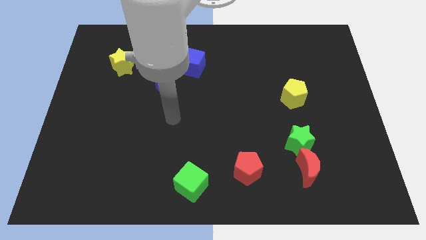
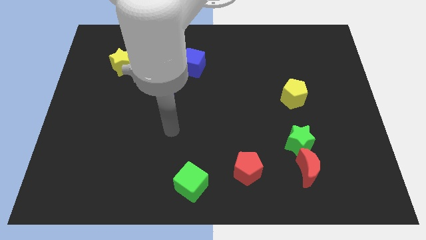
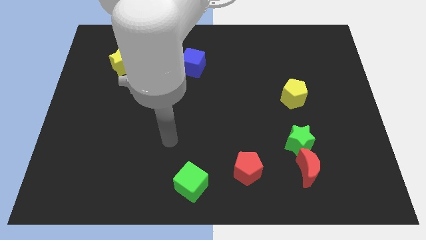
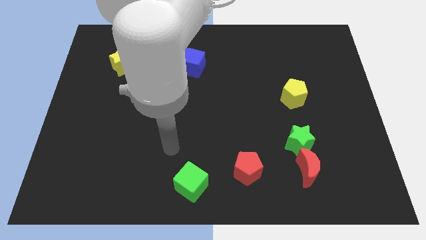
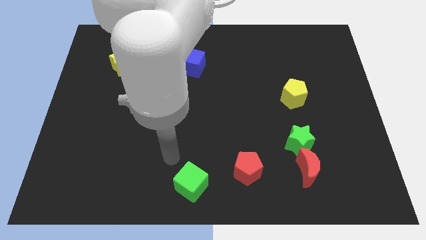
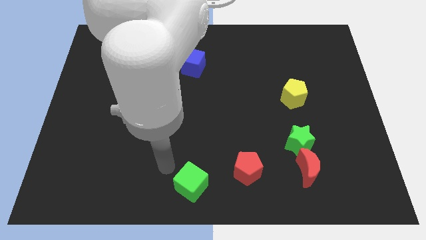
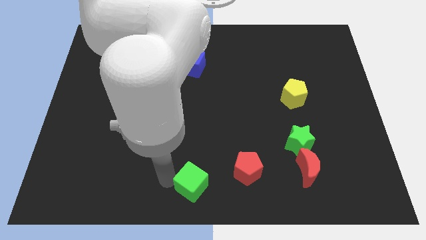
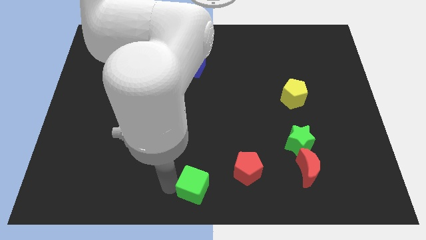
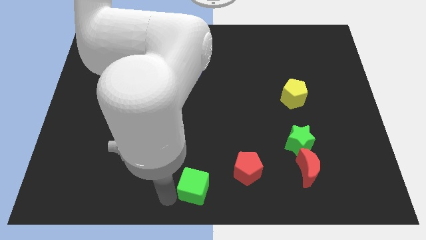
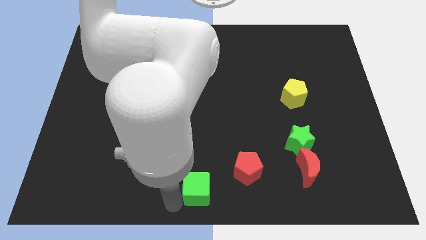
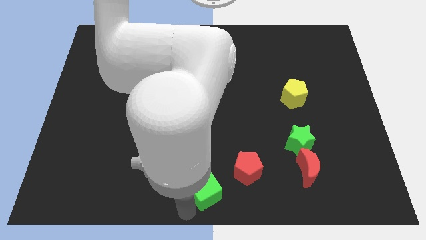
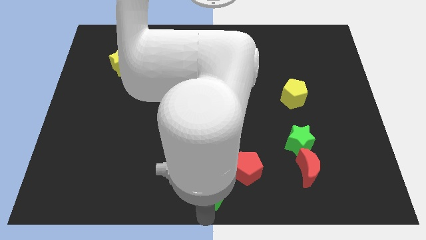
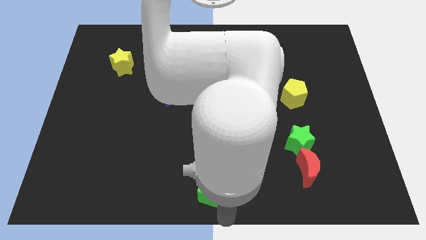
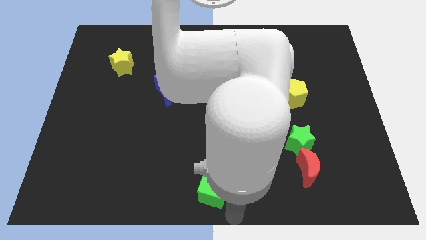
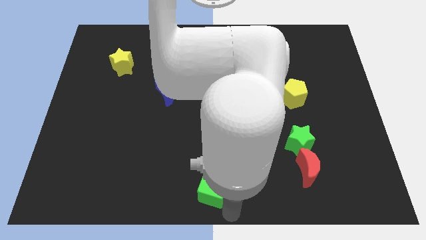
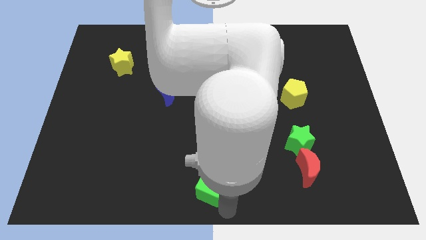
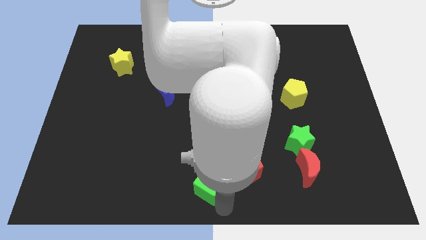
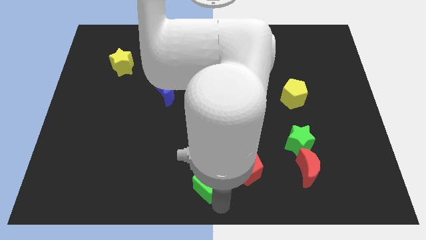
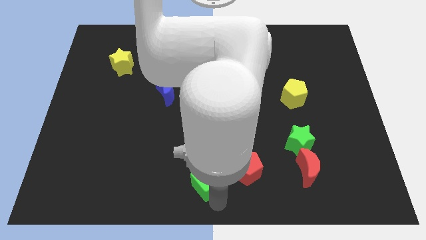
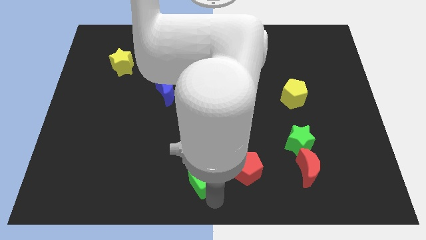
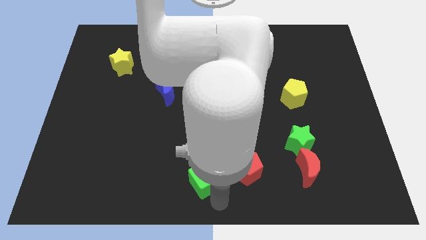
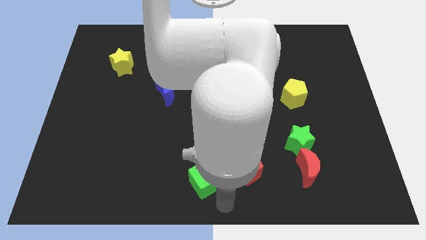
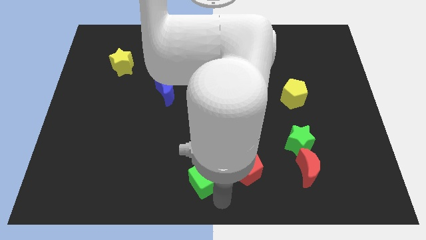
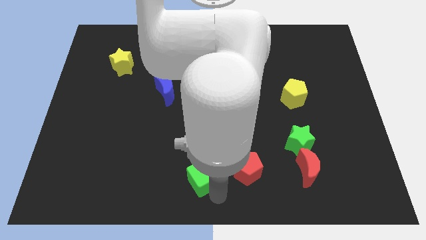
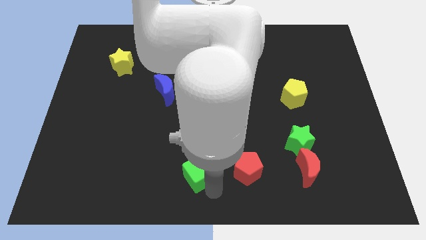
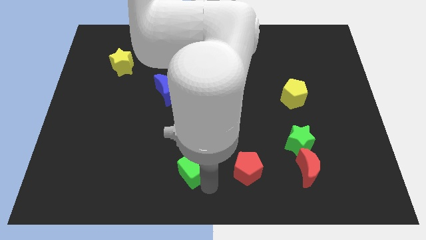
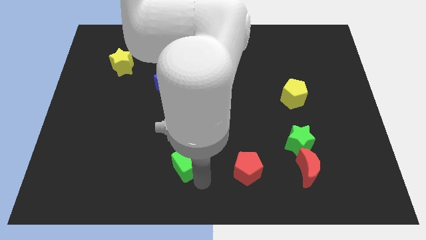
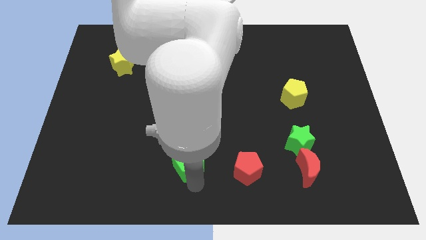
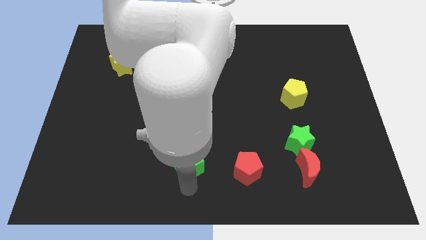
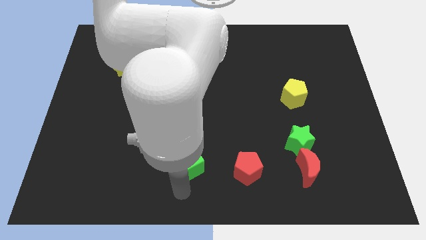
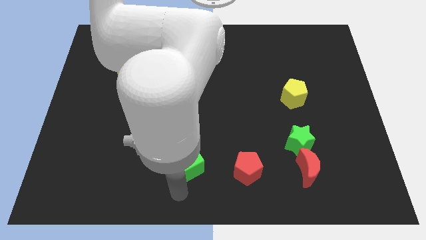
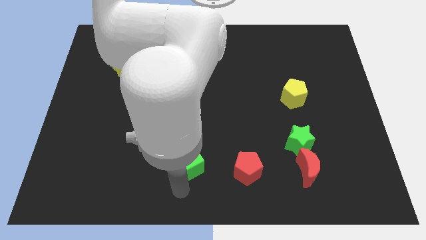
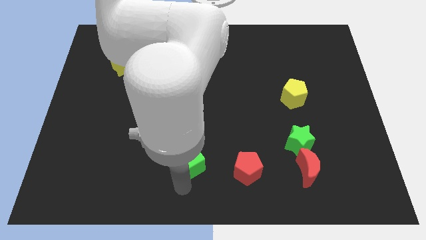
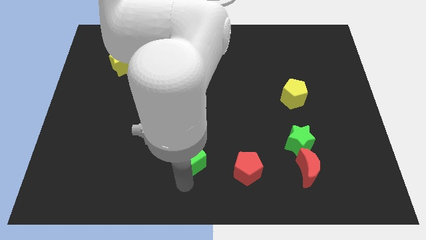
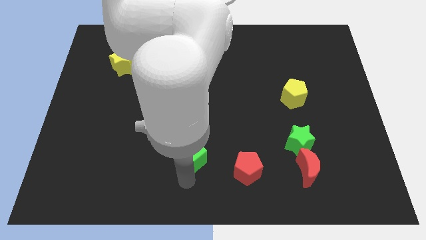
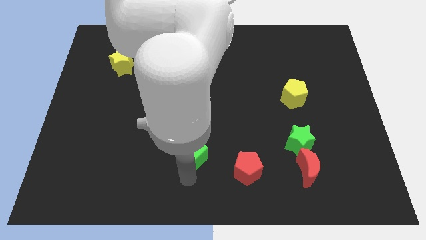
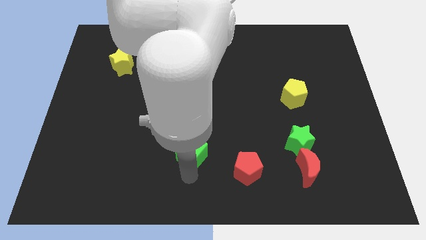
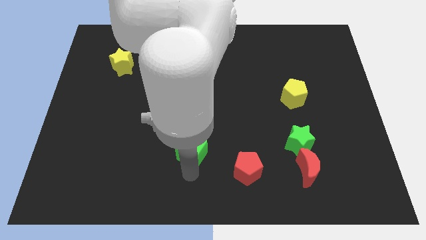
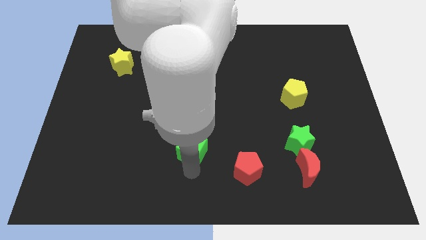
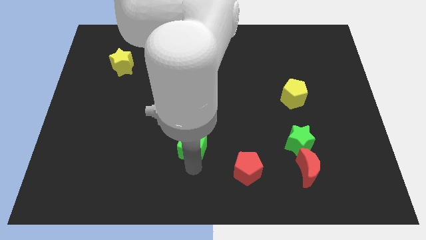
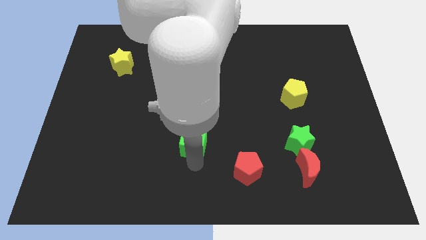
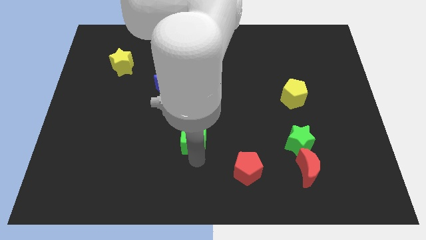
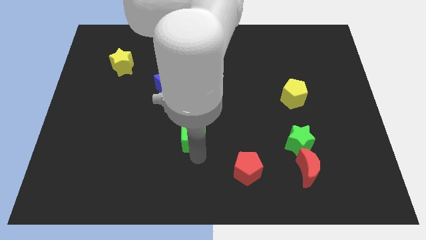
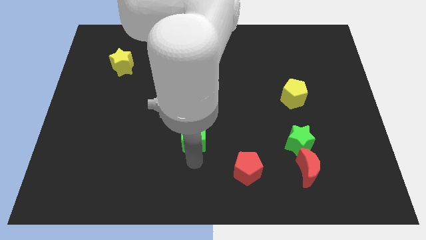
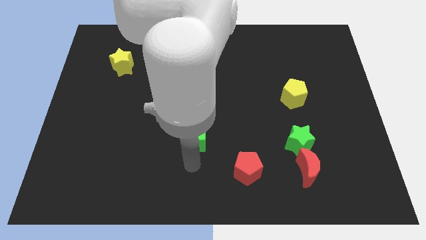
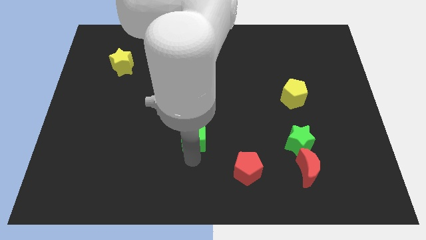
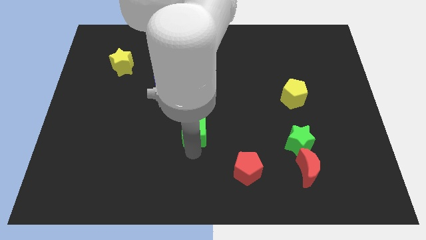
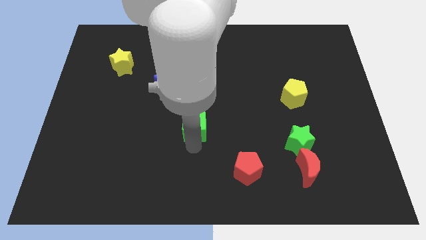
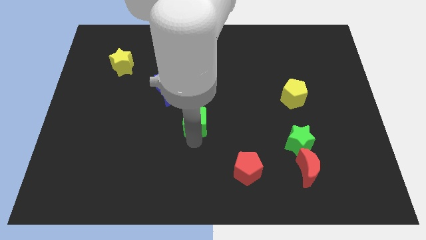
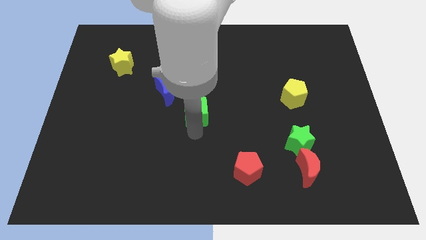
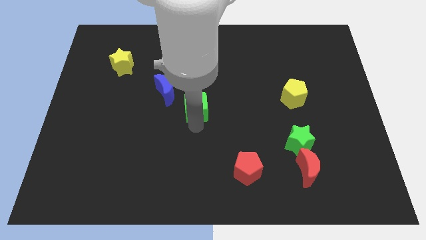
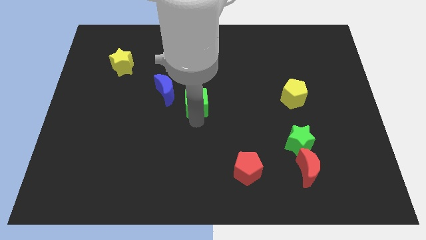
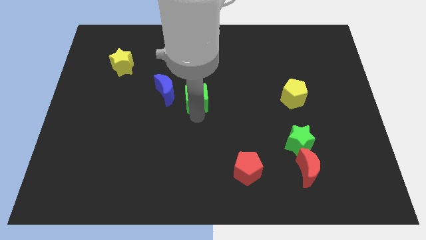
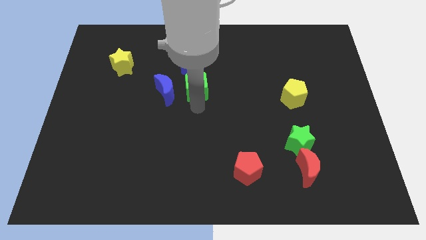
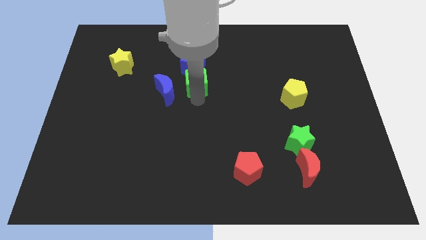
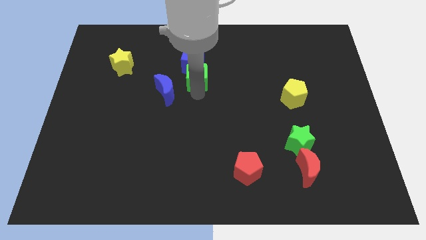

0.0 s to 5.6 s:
put the green cube towards the blue cube

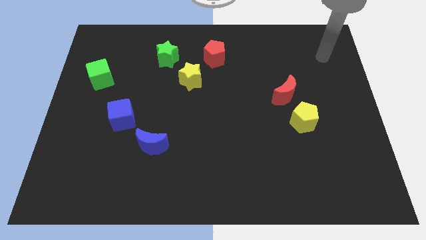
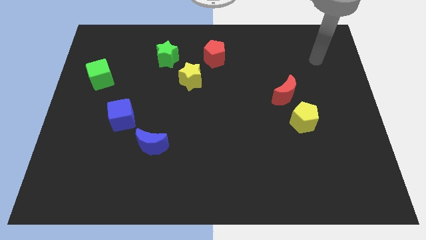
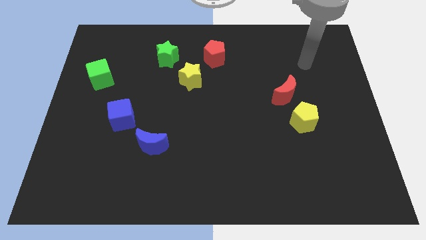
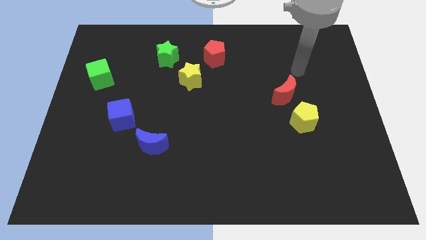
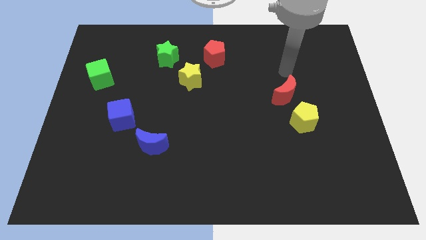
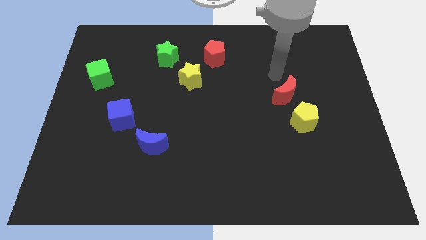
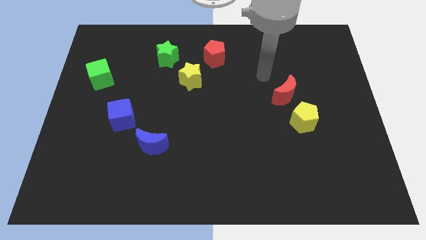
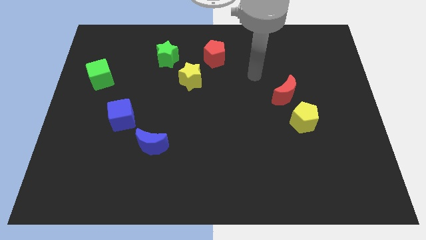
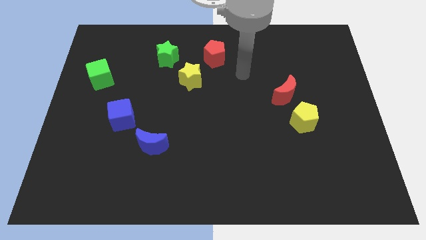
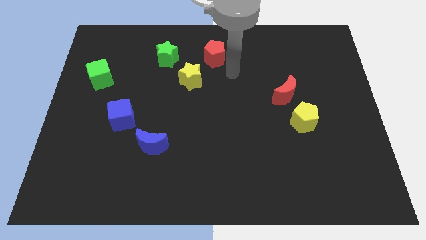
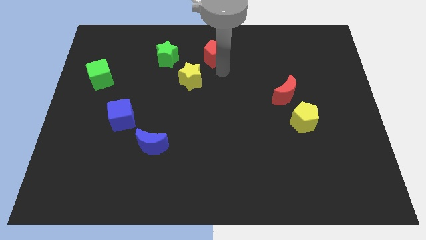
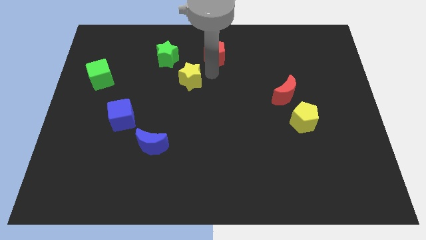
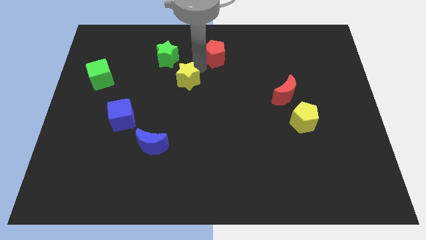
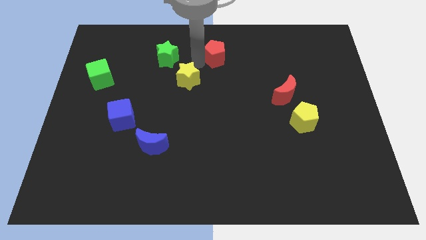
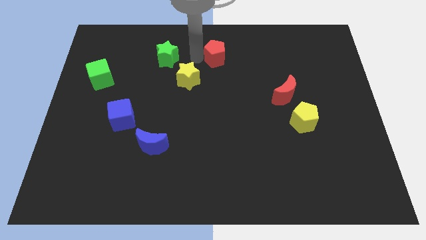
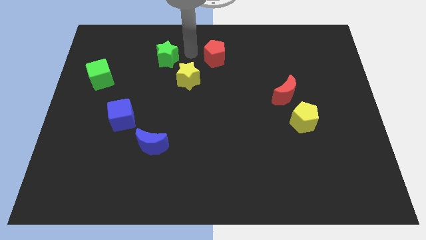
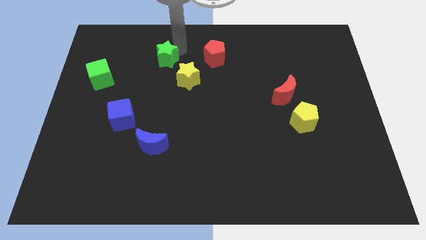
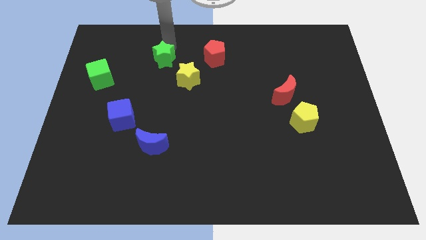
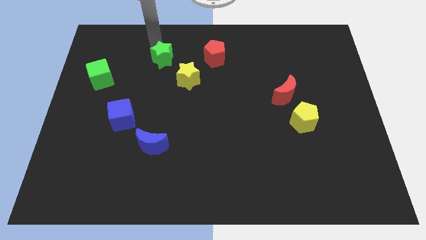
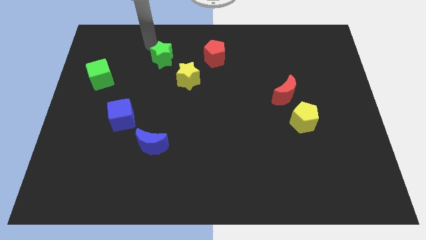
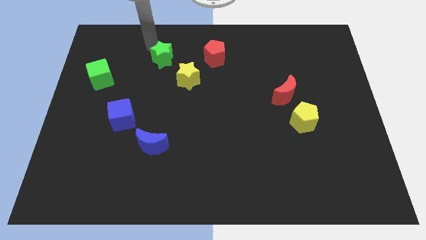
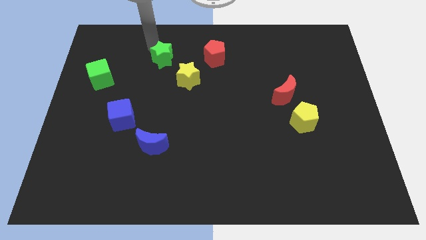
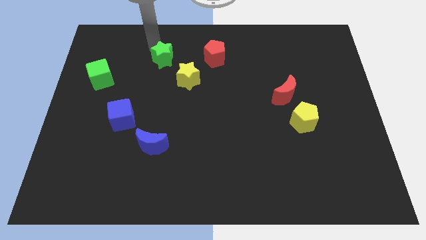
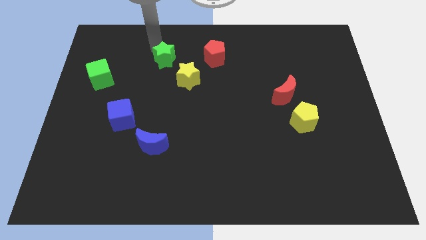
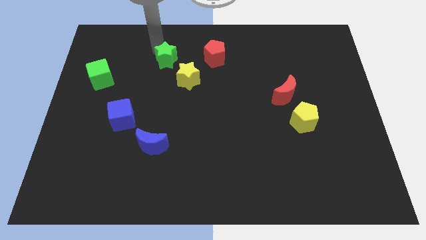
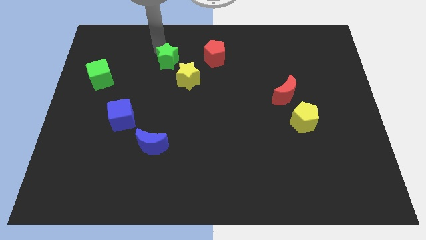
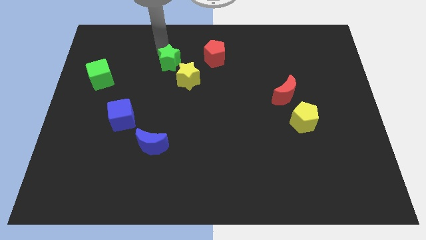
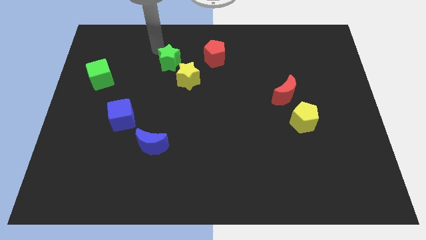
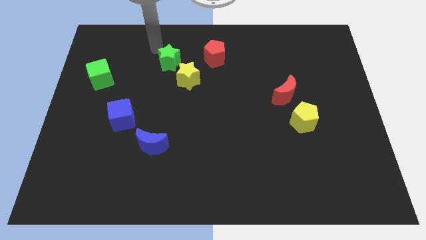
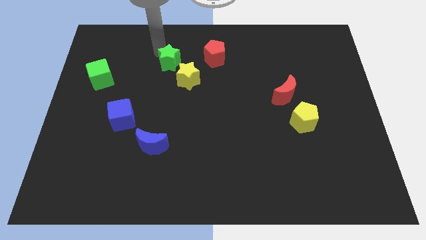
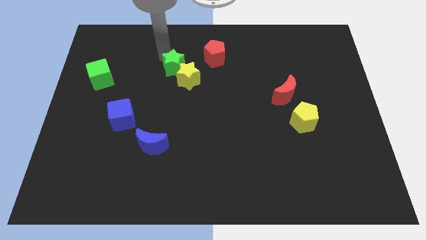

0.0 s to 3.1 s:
slide the green star to the yellow star
